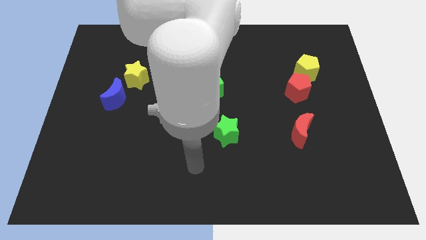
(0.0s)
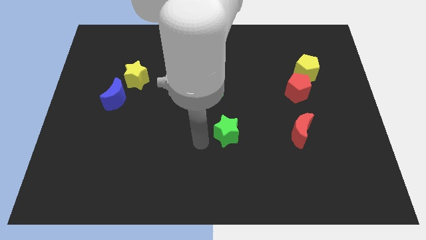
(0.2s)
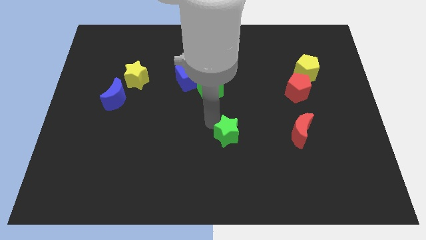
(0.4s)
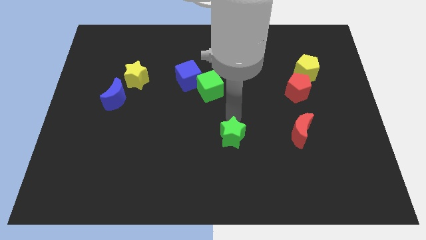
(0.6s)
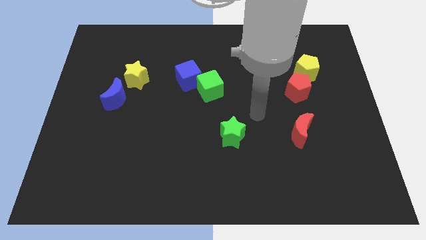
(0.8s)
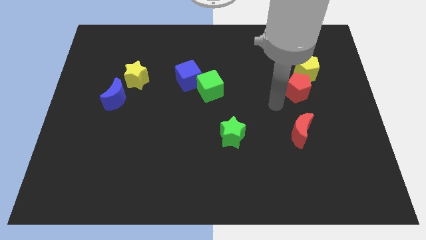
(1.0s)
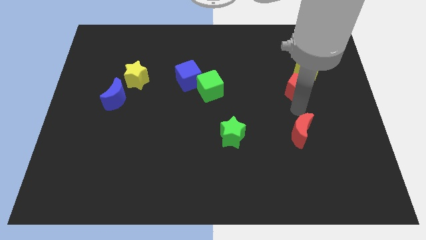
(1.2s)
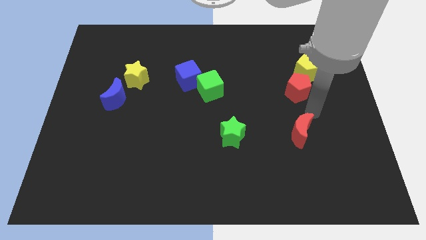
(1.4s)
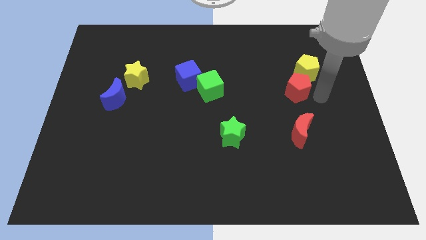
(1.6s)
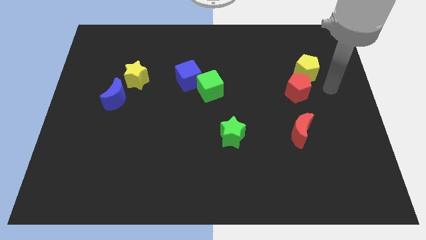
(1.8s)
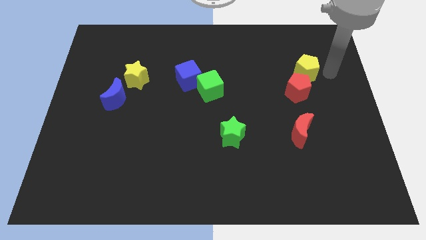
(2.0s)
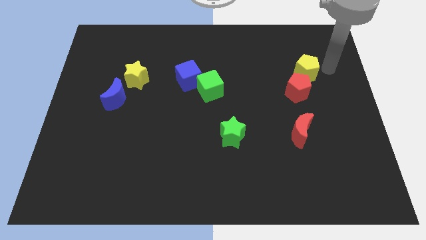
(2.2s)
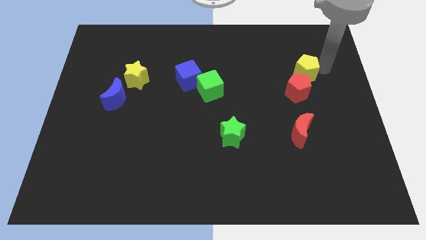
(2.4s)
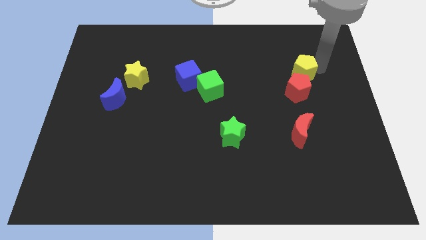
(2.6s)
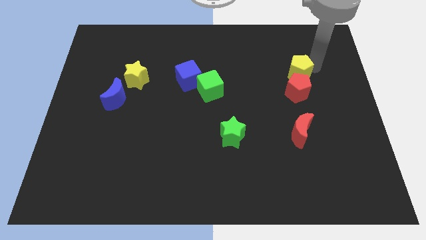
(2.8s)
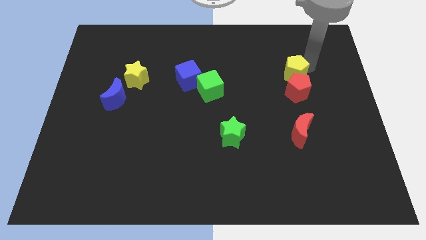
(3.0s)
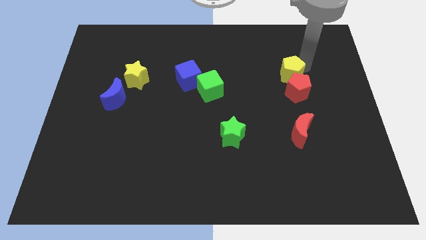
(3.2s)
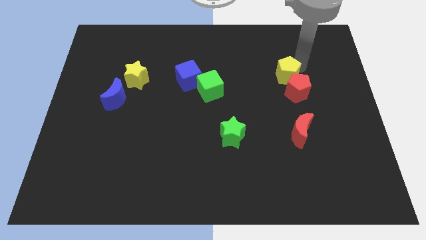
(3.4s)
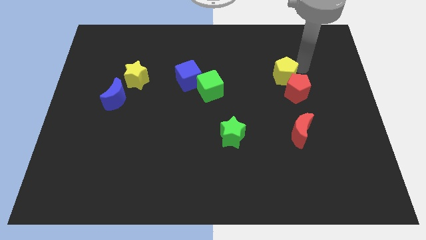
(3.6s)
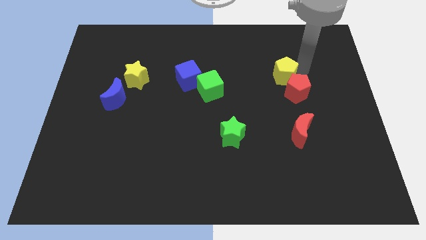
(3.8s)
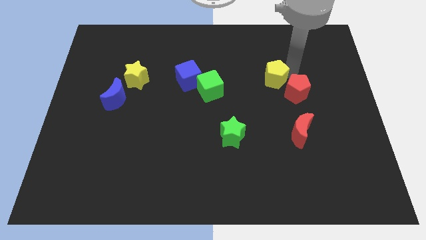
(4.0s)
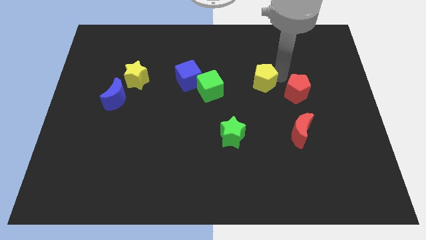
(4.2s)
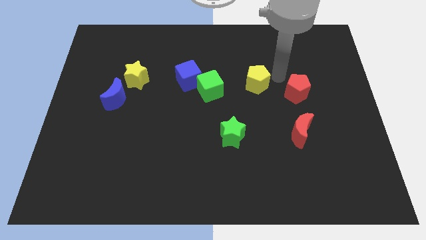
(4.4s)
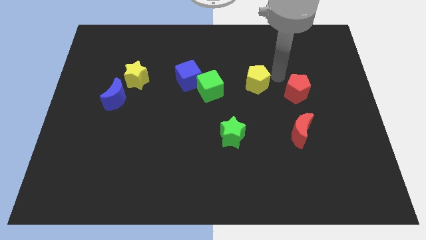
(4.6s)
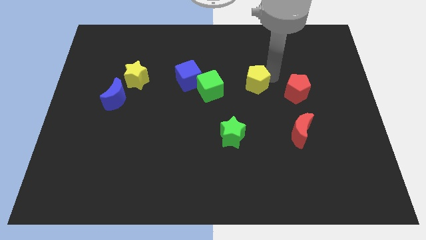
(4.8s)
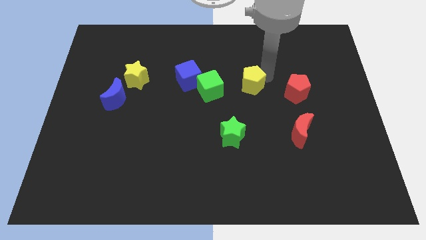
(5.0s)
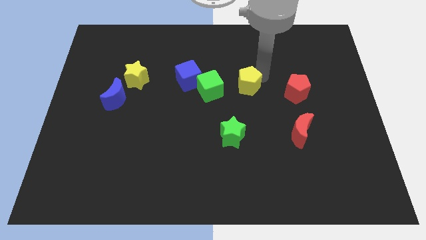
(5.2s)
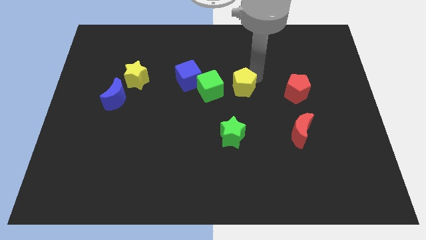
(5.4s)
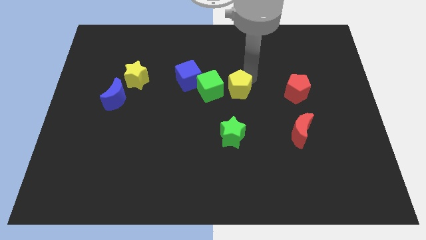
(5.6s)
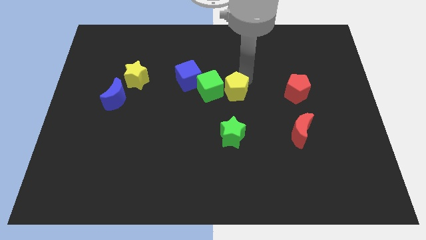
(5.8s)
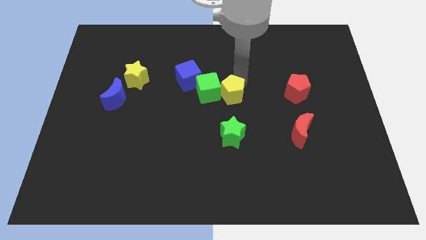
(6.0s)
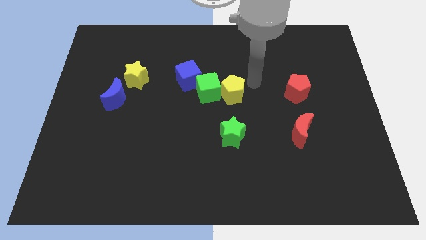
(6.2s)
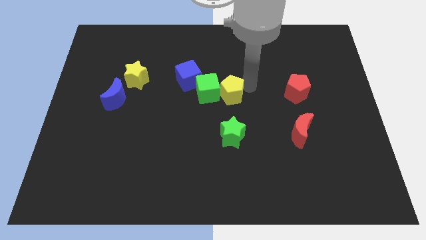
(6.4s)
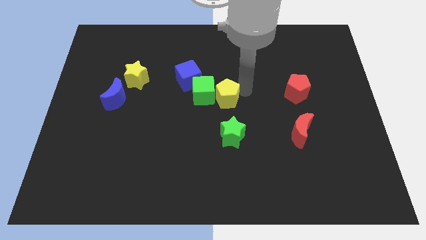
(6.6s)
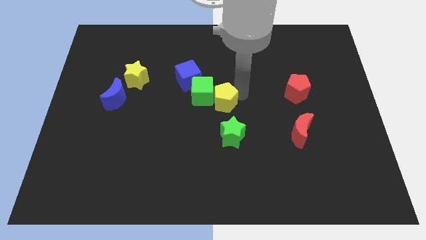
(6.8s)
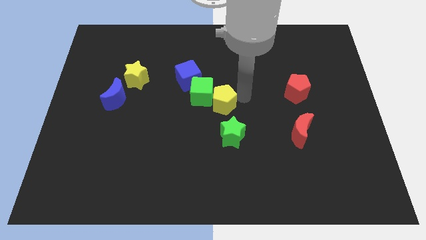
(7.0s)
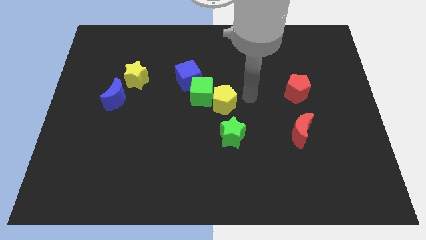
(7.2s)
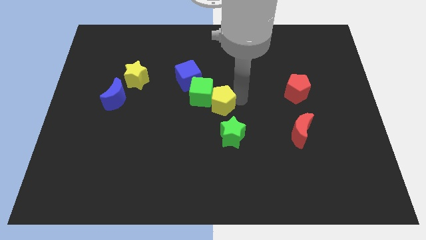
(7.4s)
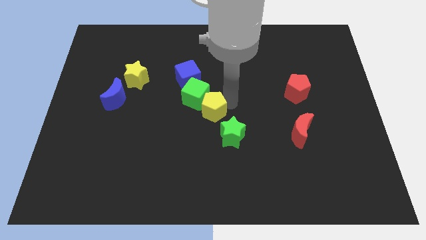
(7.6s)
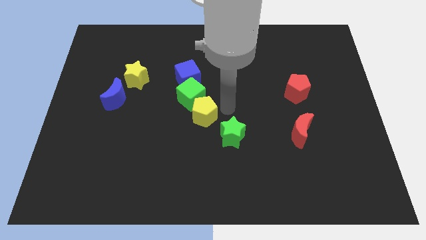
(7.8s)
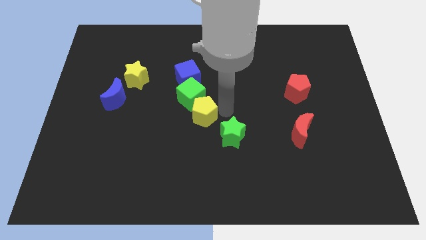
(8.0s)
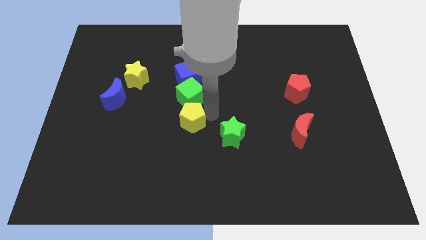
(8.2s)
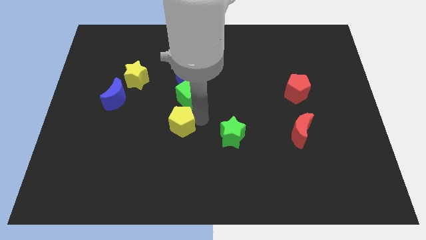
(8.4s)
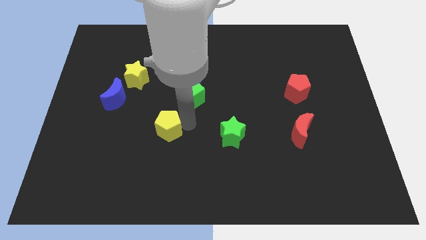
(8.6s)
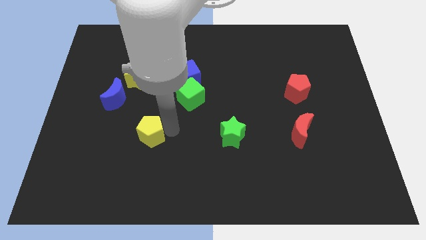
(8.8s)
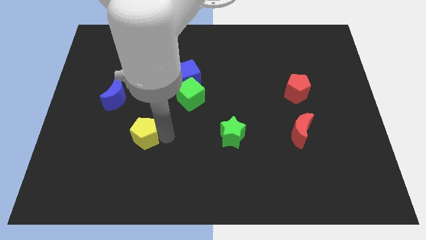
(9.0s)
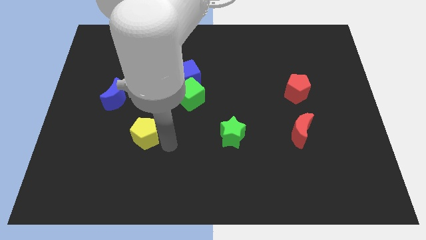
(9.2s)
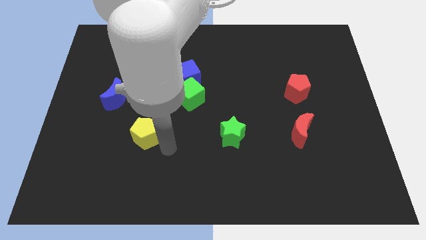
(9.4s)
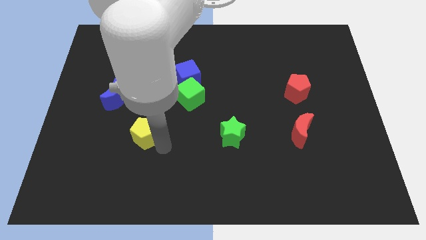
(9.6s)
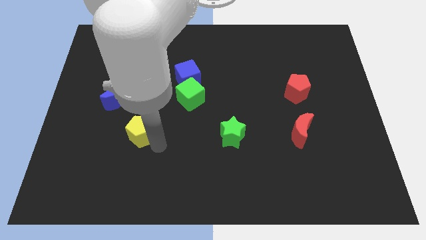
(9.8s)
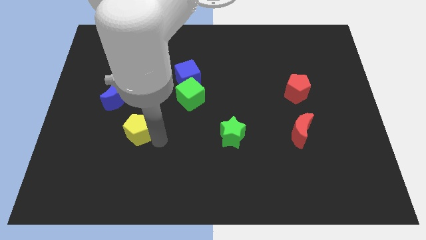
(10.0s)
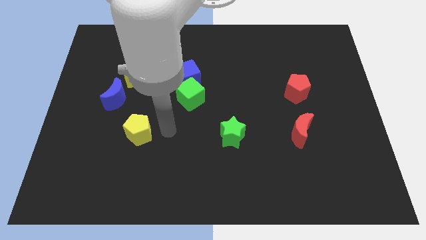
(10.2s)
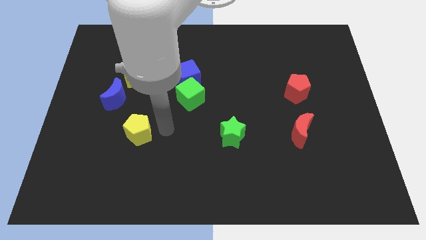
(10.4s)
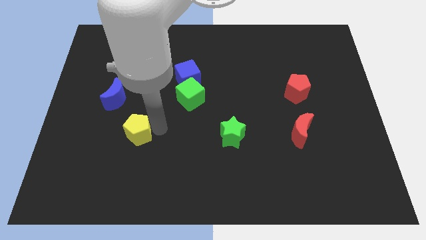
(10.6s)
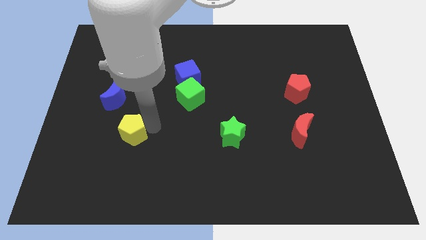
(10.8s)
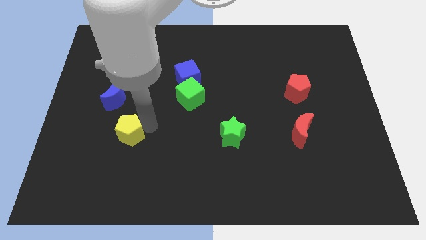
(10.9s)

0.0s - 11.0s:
put the yellow pentagon to the bottom of the blue moon

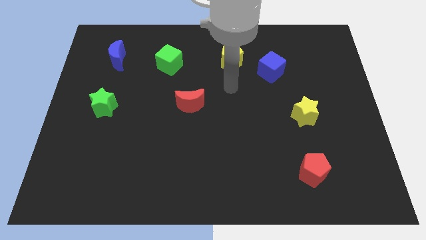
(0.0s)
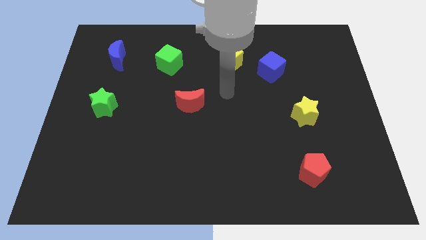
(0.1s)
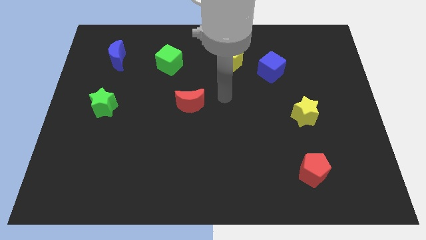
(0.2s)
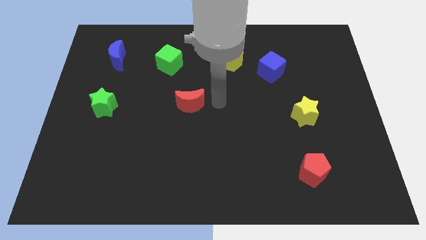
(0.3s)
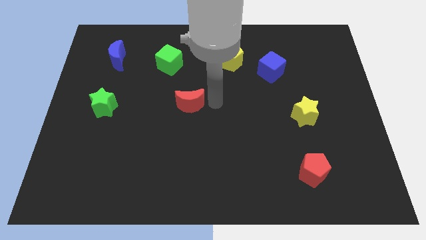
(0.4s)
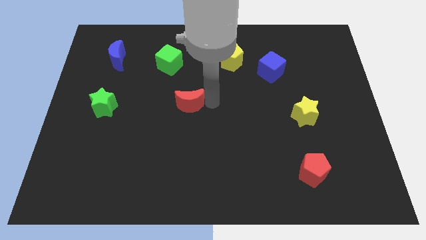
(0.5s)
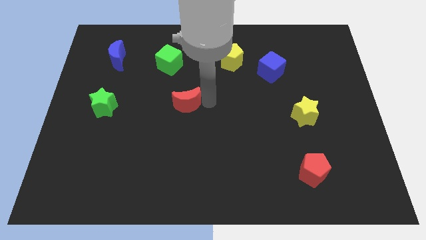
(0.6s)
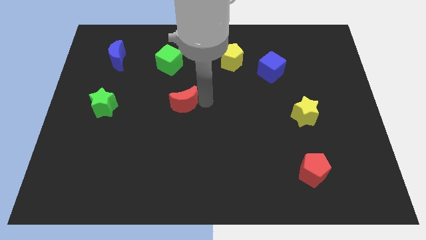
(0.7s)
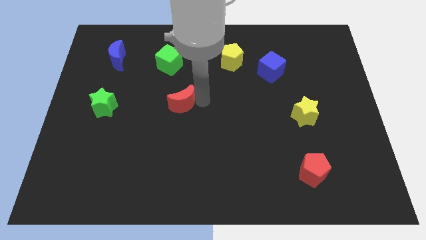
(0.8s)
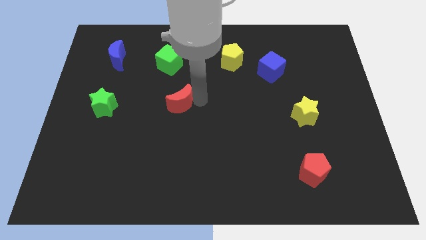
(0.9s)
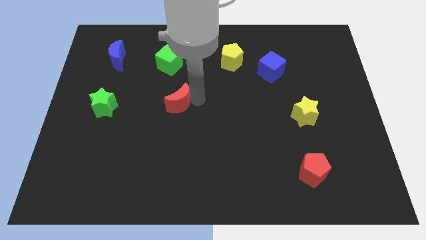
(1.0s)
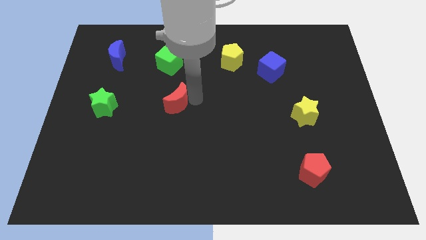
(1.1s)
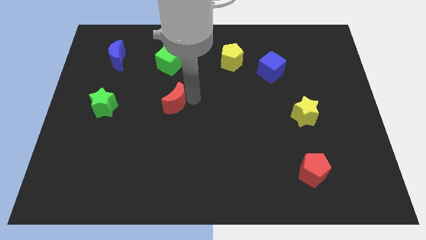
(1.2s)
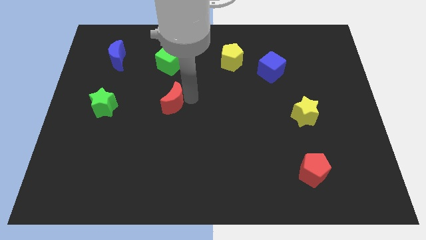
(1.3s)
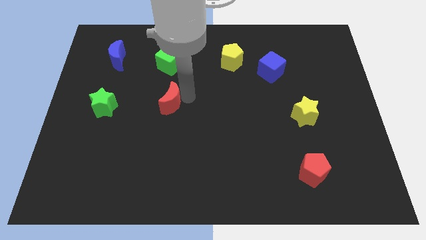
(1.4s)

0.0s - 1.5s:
put the red moon to the right side of the green star

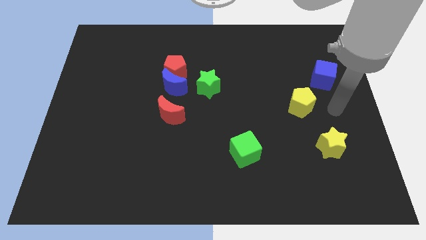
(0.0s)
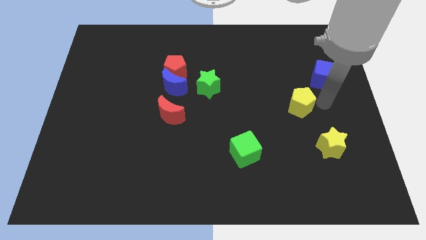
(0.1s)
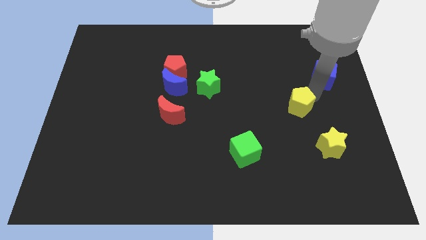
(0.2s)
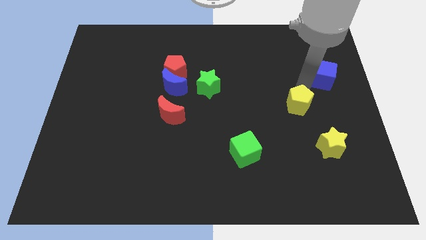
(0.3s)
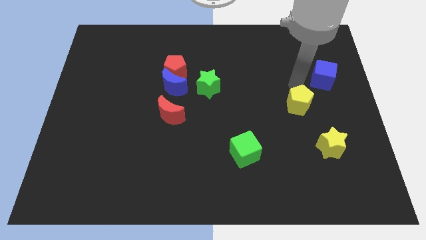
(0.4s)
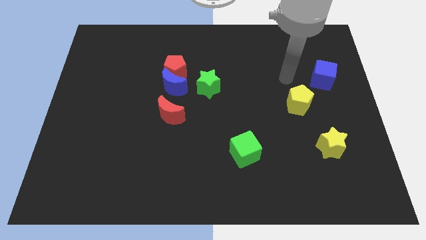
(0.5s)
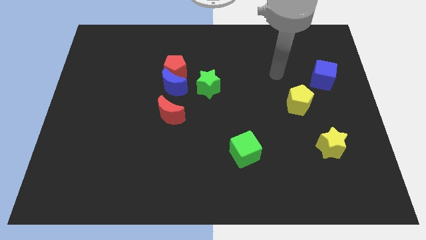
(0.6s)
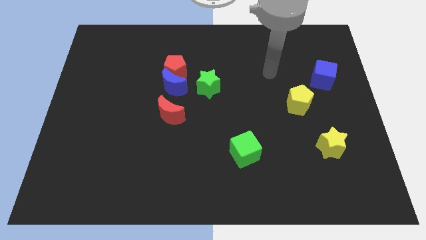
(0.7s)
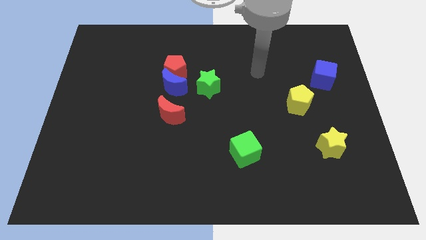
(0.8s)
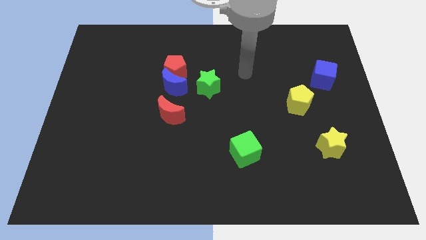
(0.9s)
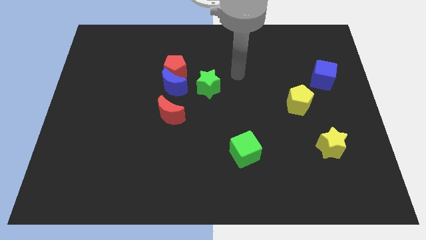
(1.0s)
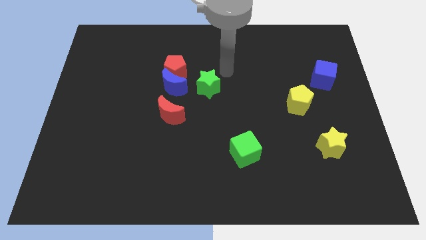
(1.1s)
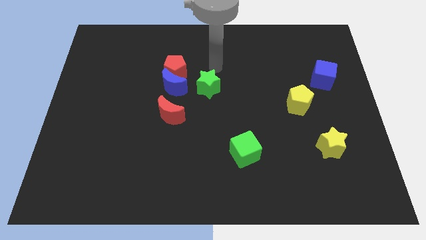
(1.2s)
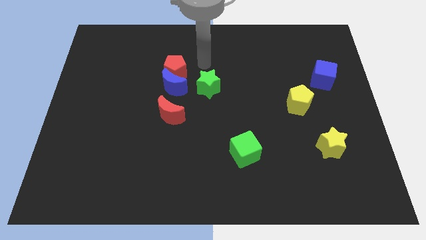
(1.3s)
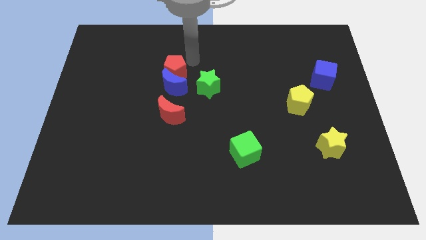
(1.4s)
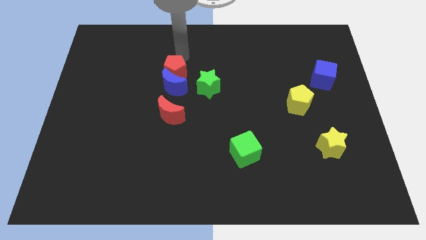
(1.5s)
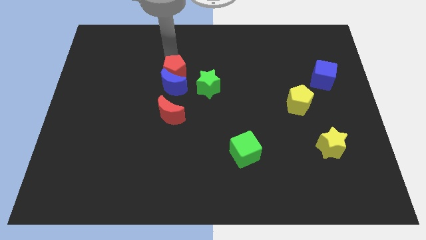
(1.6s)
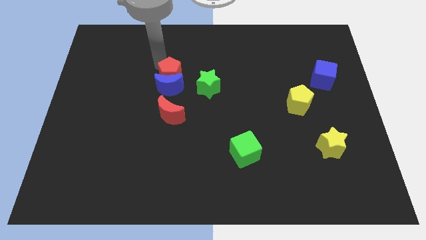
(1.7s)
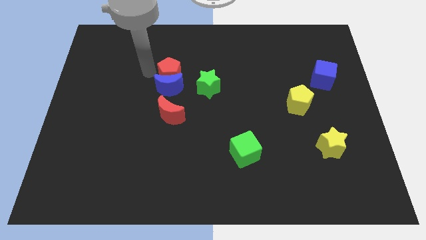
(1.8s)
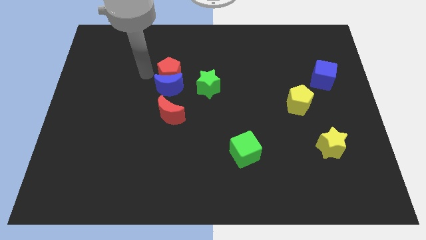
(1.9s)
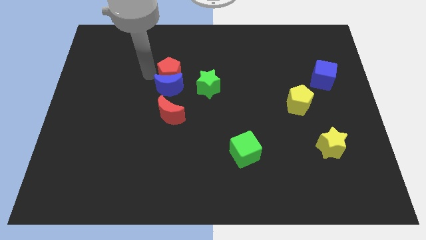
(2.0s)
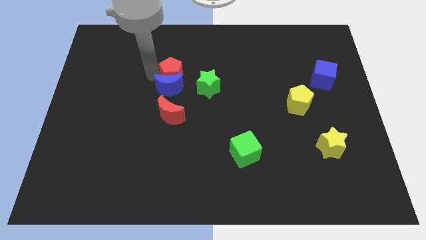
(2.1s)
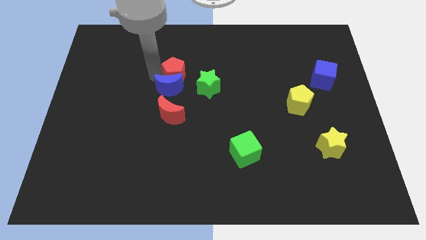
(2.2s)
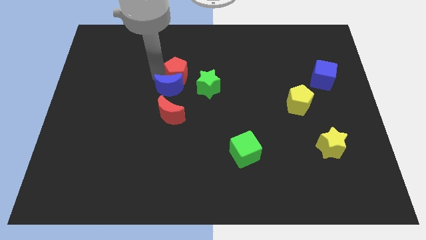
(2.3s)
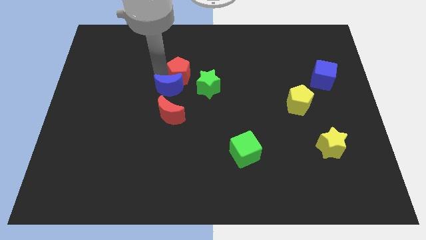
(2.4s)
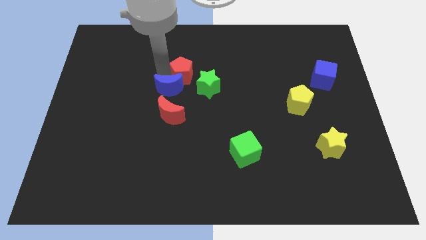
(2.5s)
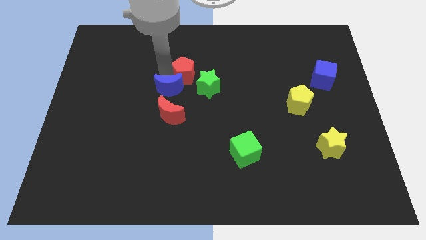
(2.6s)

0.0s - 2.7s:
put the red pentagon right of the blue moon
